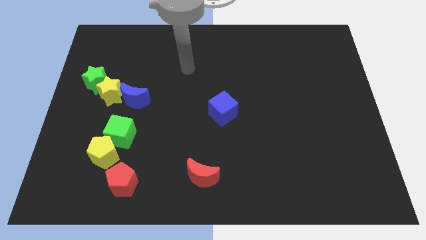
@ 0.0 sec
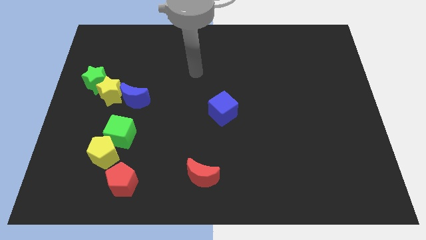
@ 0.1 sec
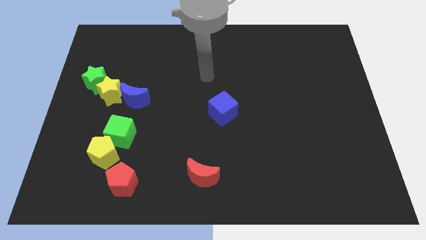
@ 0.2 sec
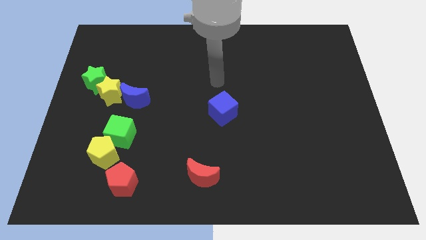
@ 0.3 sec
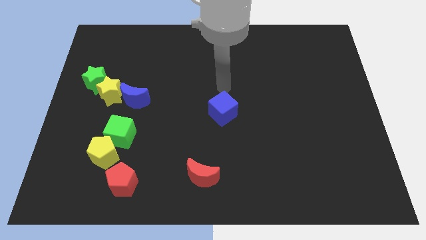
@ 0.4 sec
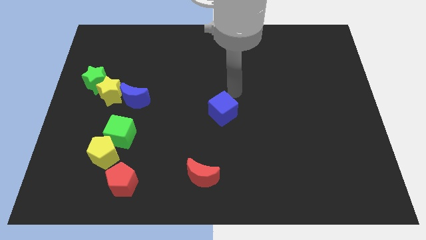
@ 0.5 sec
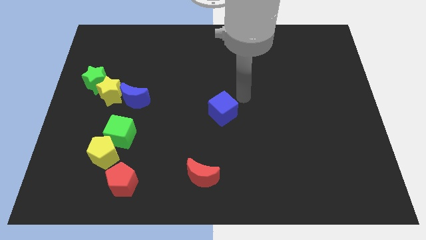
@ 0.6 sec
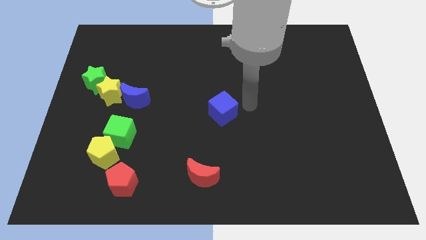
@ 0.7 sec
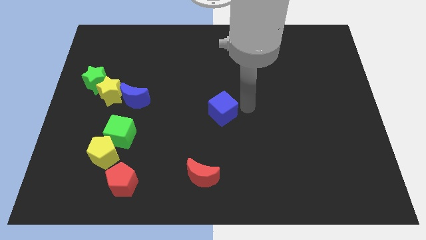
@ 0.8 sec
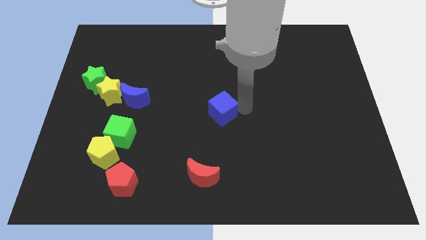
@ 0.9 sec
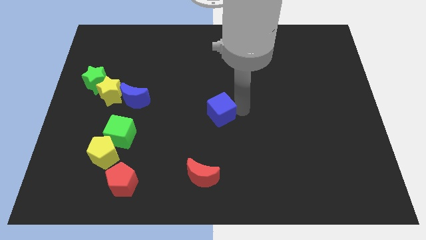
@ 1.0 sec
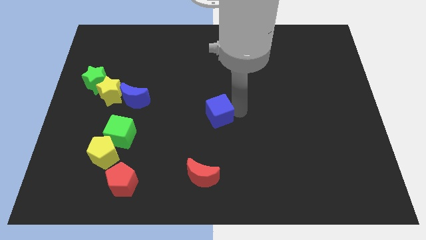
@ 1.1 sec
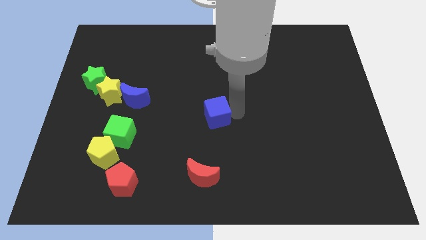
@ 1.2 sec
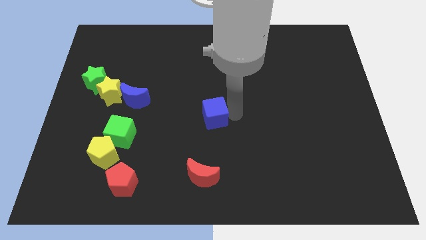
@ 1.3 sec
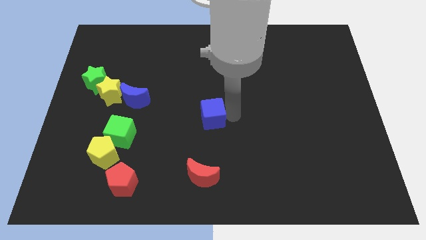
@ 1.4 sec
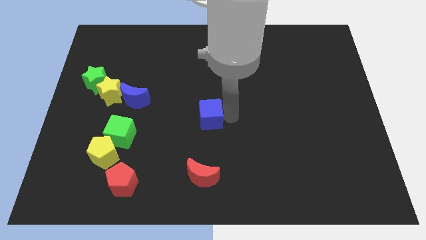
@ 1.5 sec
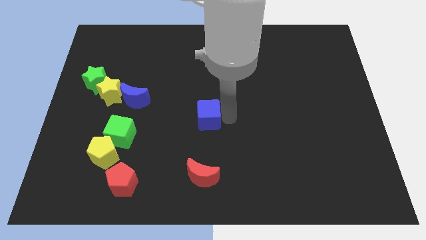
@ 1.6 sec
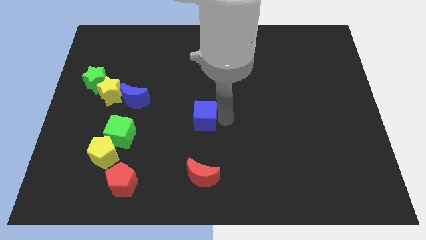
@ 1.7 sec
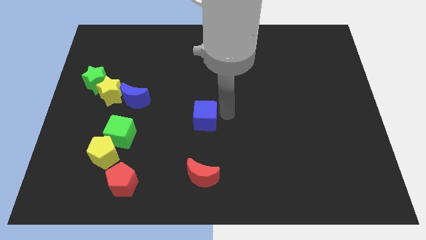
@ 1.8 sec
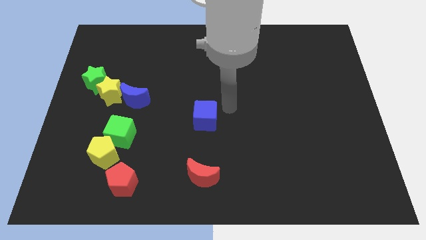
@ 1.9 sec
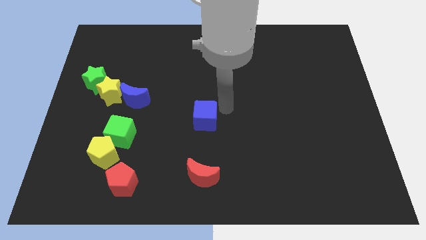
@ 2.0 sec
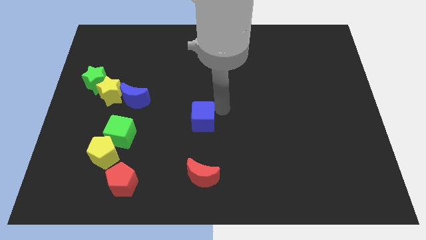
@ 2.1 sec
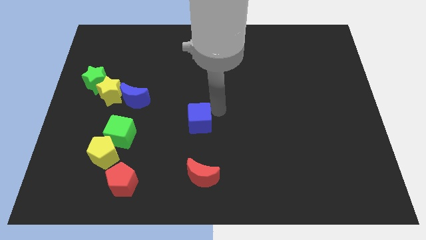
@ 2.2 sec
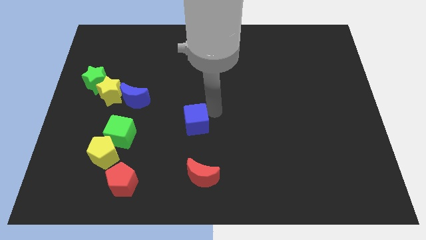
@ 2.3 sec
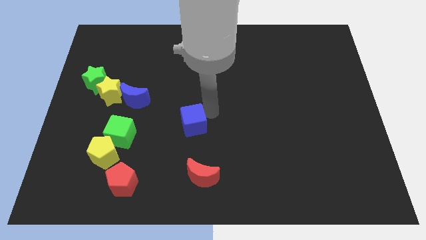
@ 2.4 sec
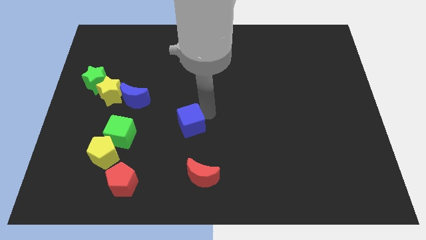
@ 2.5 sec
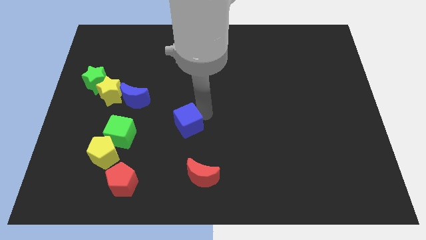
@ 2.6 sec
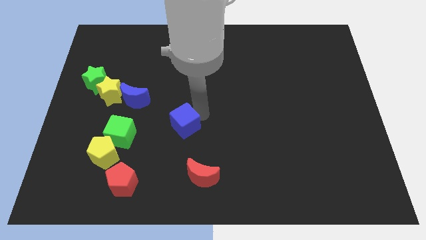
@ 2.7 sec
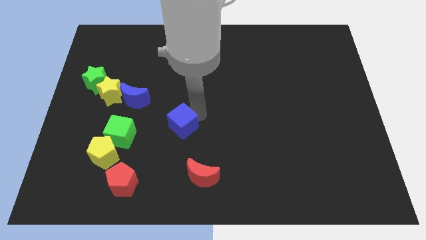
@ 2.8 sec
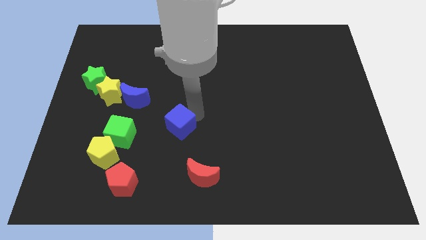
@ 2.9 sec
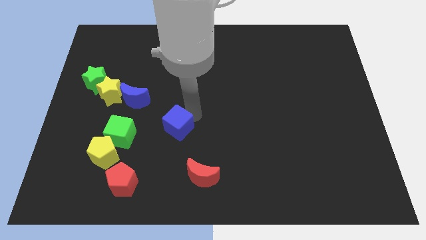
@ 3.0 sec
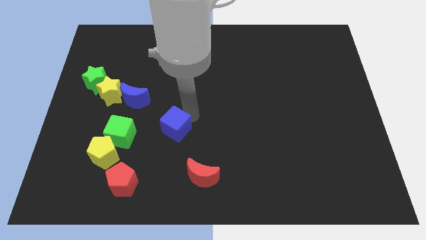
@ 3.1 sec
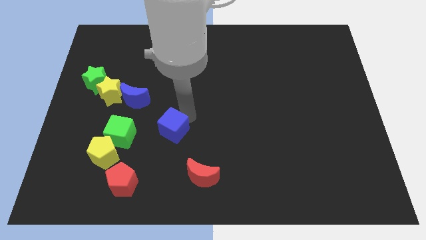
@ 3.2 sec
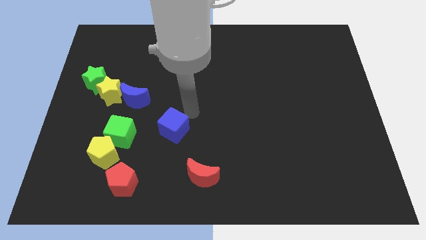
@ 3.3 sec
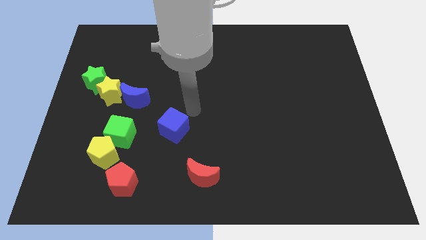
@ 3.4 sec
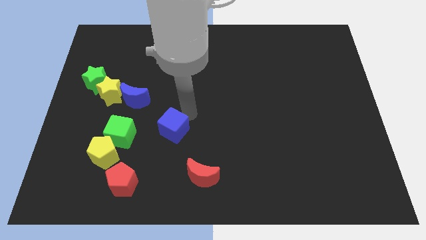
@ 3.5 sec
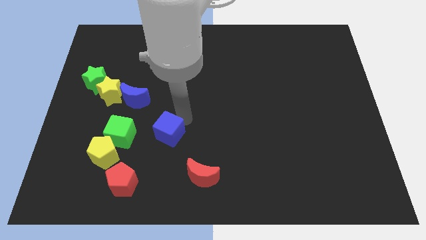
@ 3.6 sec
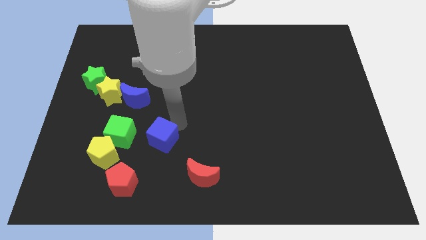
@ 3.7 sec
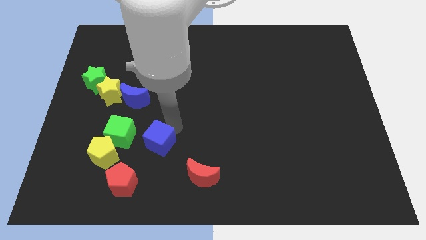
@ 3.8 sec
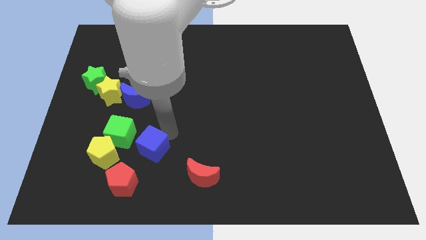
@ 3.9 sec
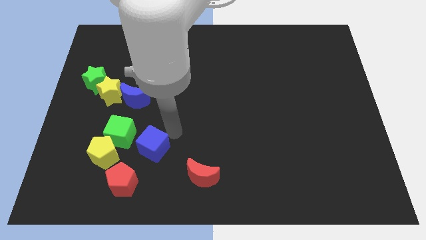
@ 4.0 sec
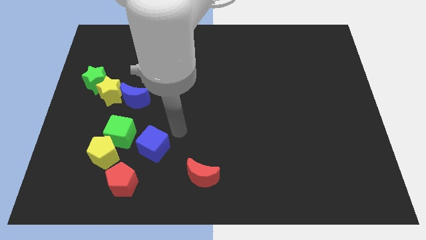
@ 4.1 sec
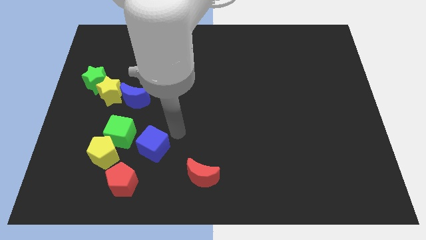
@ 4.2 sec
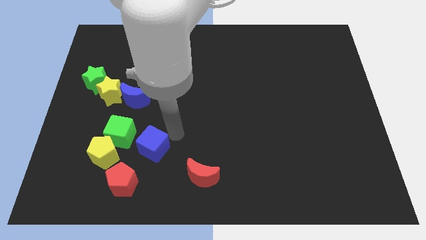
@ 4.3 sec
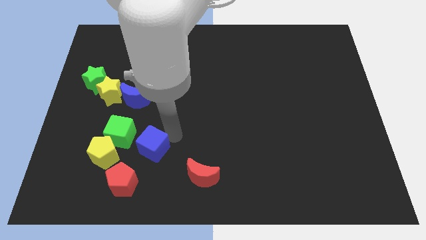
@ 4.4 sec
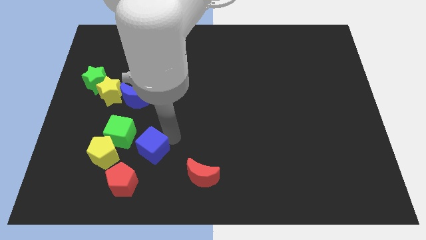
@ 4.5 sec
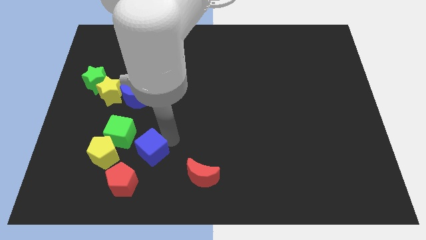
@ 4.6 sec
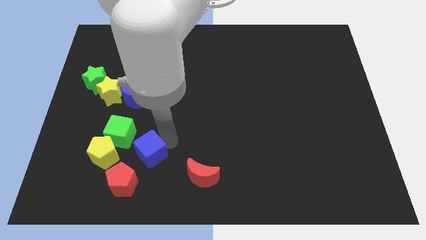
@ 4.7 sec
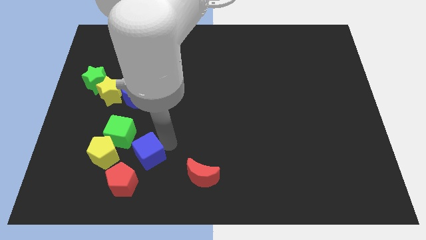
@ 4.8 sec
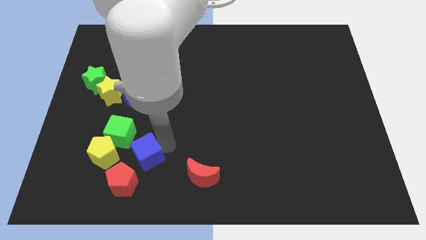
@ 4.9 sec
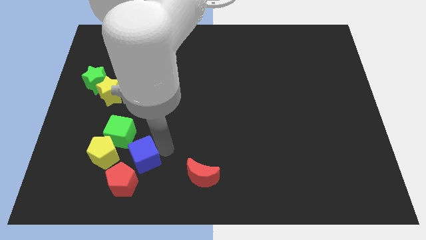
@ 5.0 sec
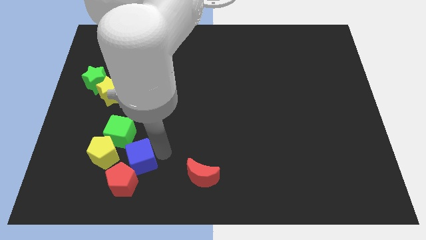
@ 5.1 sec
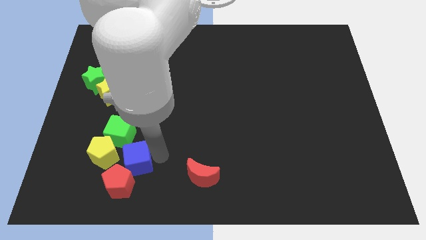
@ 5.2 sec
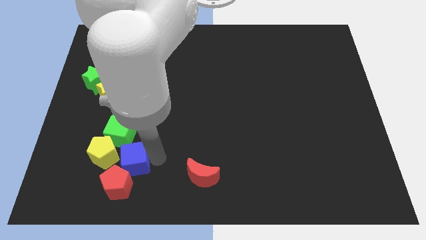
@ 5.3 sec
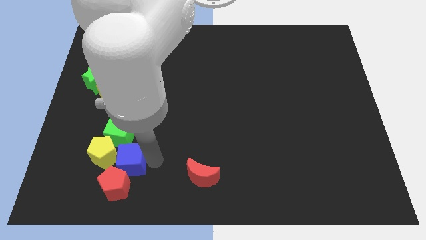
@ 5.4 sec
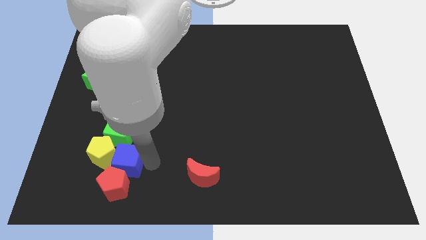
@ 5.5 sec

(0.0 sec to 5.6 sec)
slide the blue cube towards the yellow pentagon

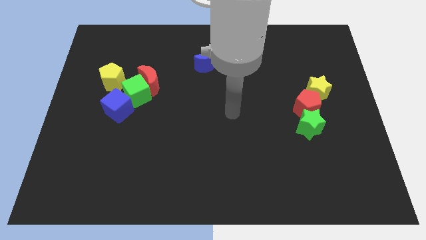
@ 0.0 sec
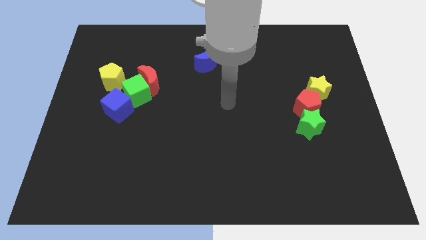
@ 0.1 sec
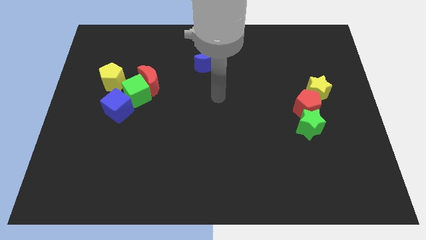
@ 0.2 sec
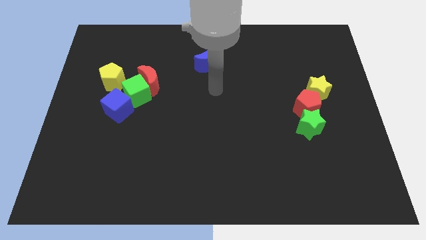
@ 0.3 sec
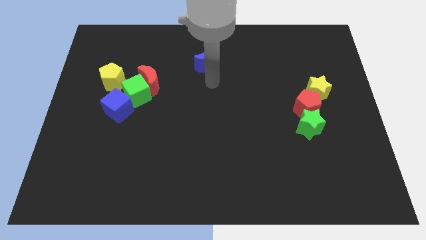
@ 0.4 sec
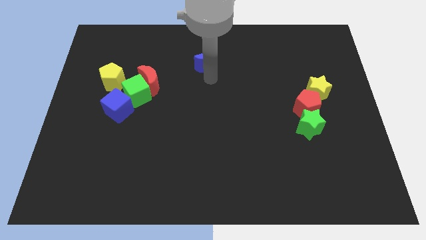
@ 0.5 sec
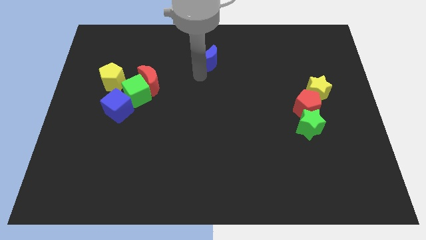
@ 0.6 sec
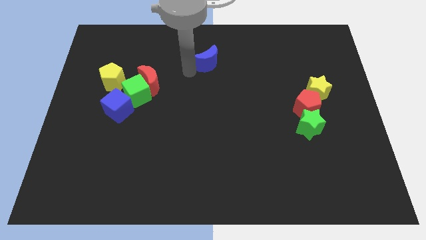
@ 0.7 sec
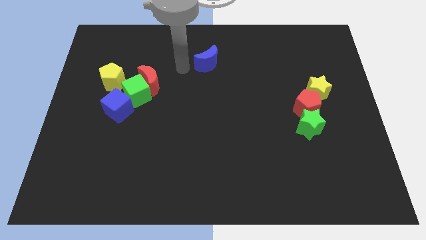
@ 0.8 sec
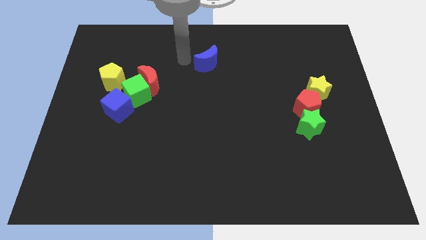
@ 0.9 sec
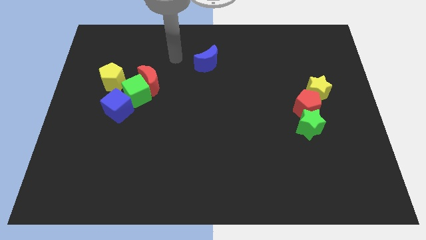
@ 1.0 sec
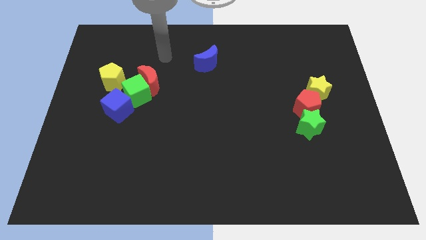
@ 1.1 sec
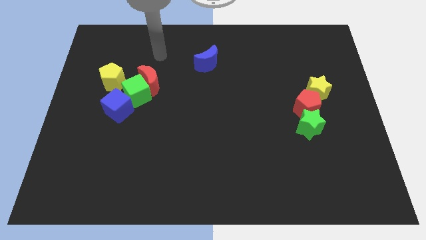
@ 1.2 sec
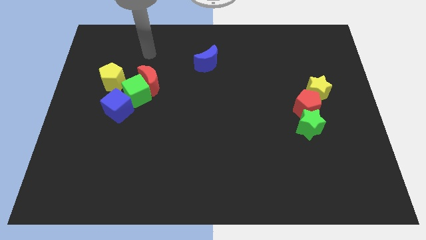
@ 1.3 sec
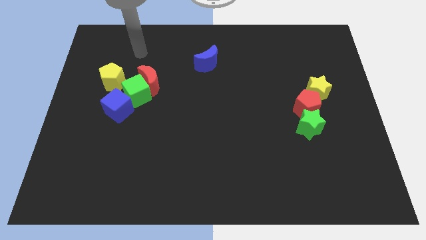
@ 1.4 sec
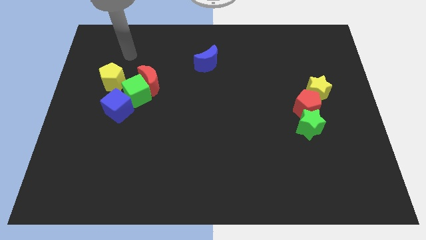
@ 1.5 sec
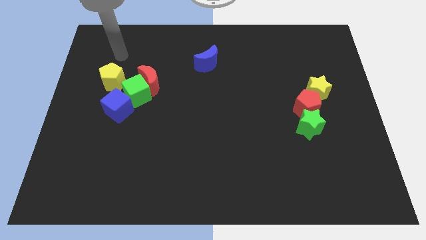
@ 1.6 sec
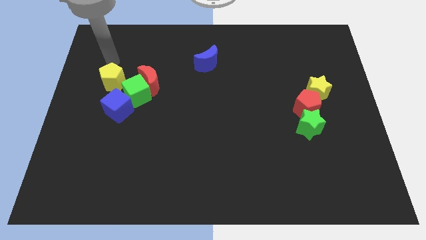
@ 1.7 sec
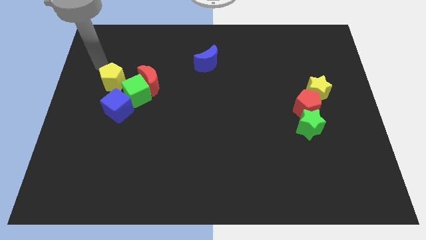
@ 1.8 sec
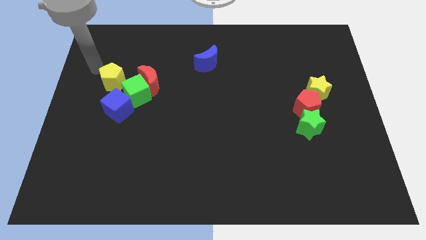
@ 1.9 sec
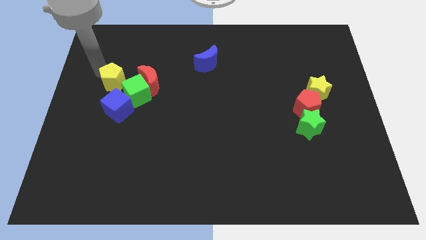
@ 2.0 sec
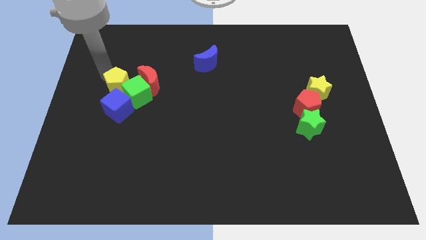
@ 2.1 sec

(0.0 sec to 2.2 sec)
slide the yellow pentagon next to the green cube
